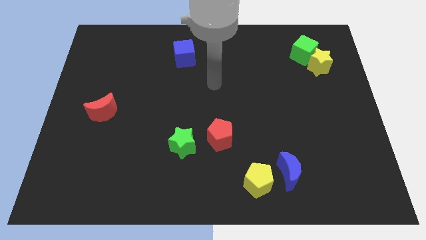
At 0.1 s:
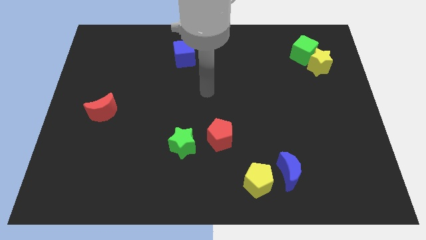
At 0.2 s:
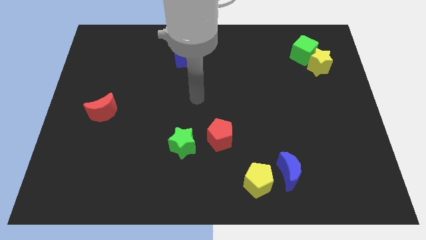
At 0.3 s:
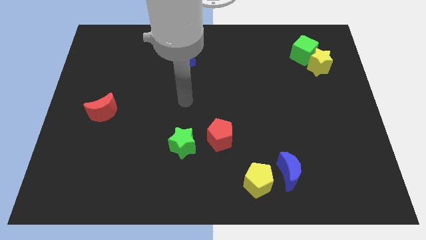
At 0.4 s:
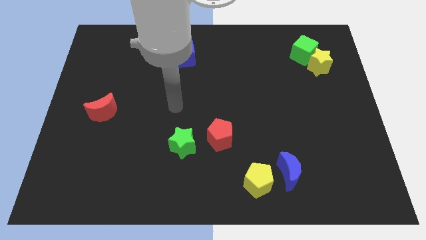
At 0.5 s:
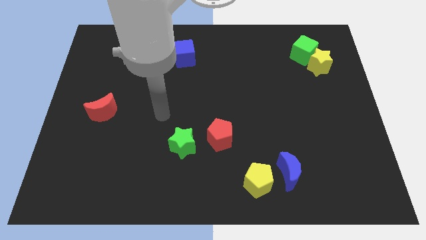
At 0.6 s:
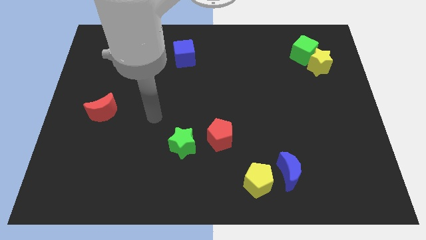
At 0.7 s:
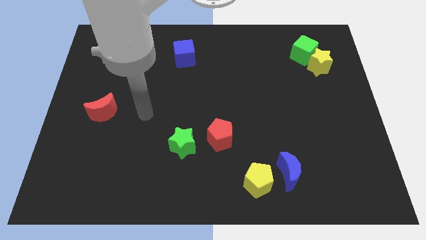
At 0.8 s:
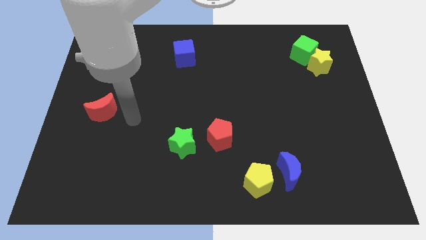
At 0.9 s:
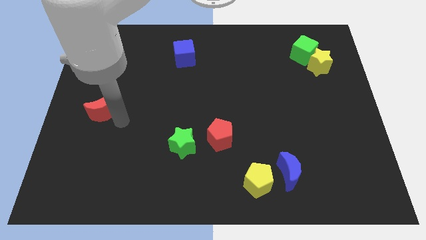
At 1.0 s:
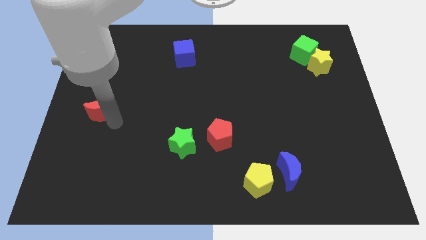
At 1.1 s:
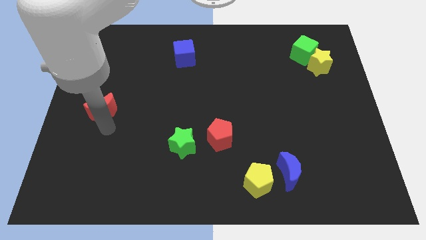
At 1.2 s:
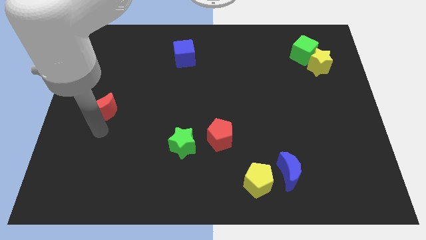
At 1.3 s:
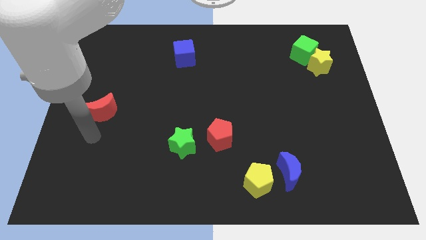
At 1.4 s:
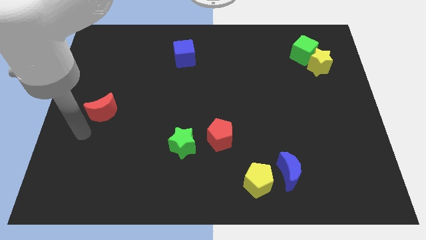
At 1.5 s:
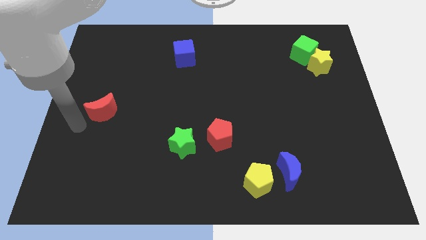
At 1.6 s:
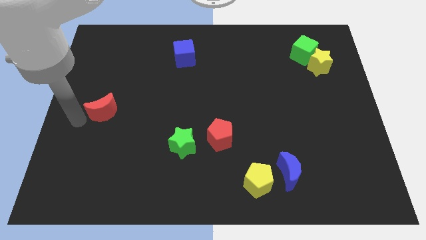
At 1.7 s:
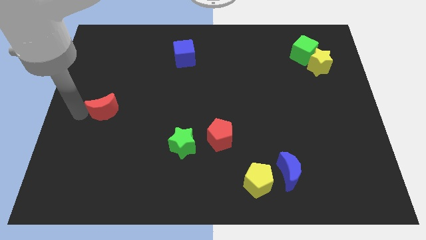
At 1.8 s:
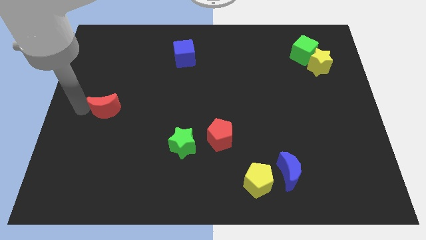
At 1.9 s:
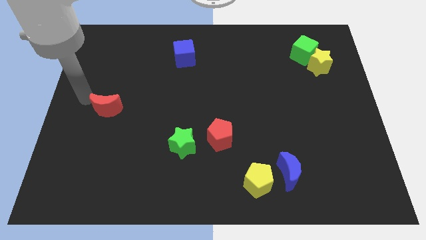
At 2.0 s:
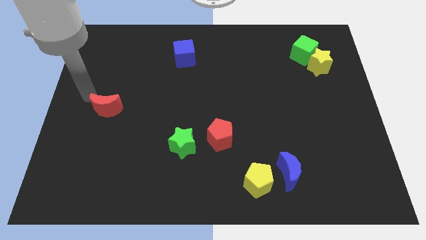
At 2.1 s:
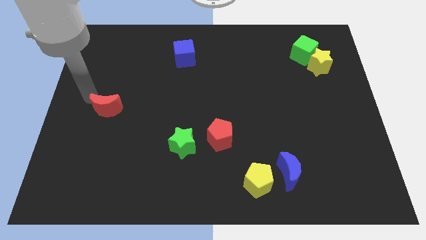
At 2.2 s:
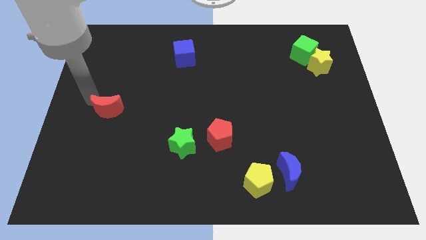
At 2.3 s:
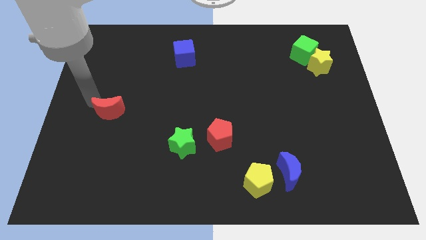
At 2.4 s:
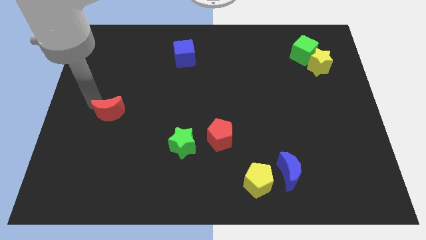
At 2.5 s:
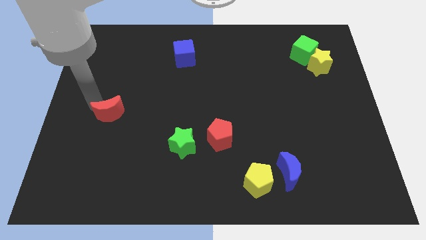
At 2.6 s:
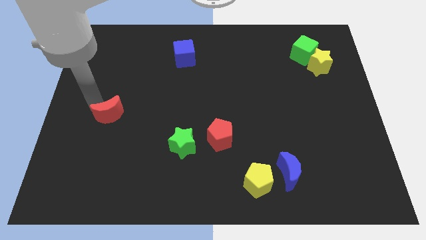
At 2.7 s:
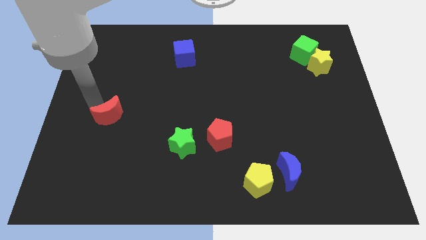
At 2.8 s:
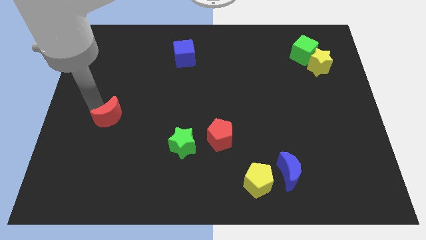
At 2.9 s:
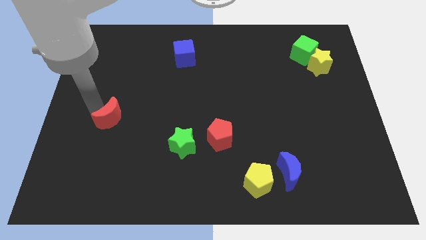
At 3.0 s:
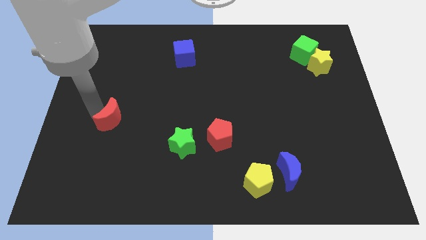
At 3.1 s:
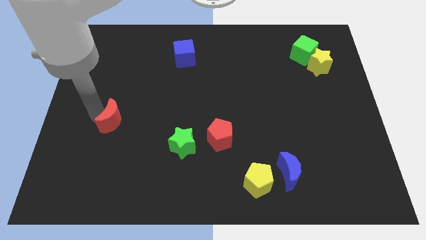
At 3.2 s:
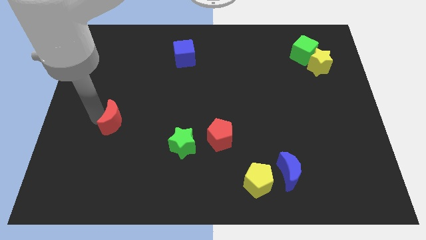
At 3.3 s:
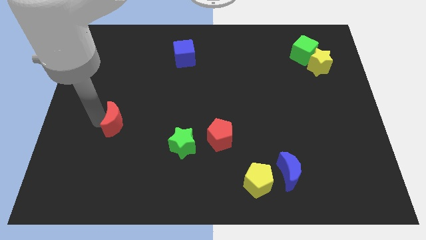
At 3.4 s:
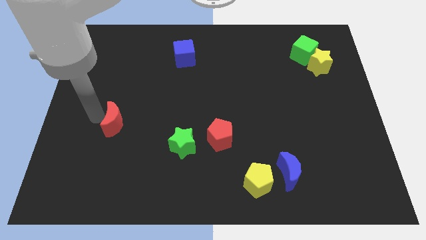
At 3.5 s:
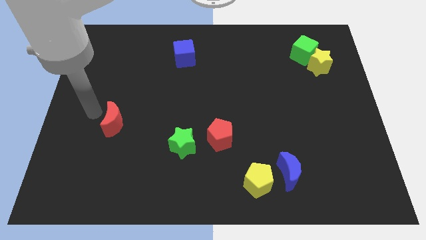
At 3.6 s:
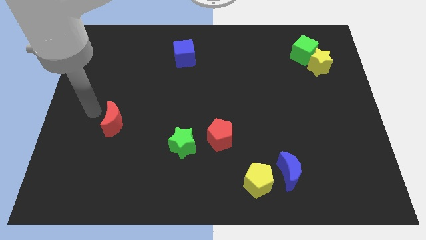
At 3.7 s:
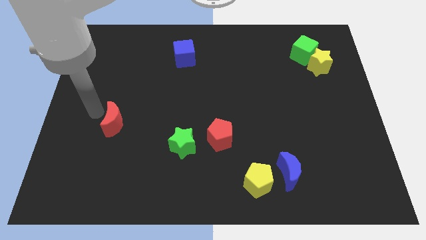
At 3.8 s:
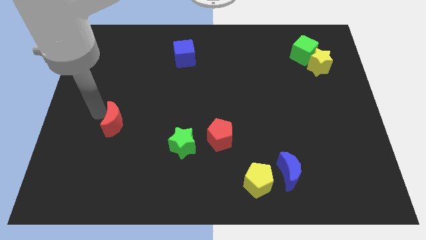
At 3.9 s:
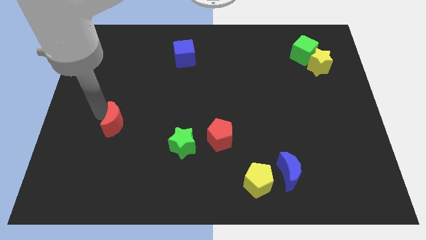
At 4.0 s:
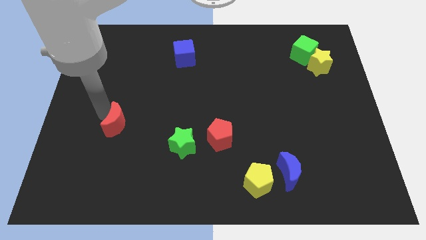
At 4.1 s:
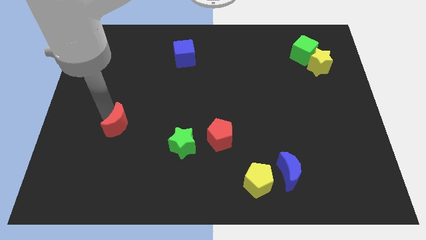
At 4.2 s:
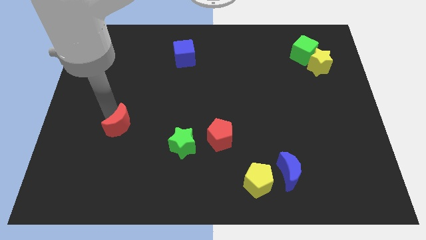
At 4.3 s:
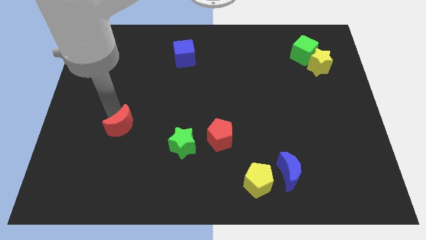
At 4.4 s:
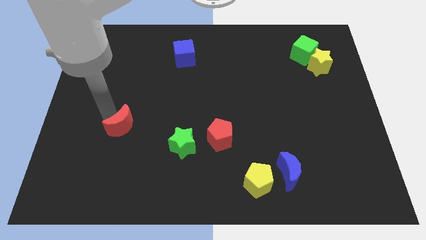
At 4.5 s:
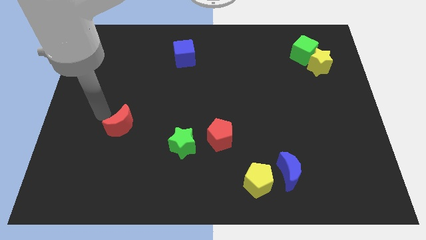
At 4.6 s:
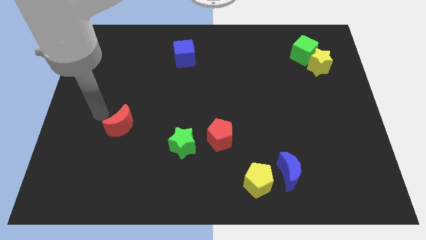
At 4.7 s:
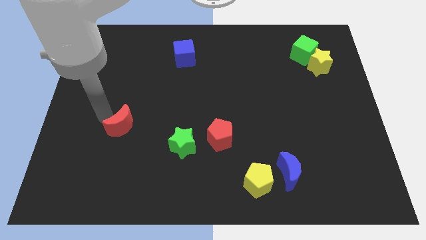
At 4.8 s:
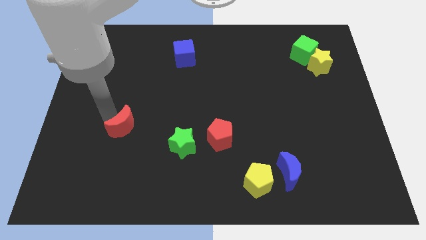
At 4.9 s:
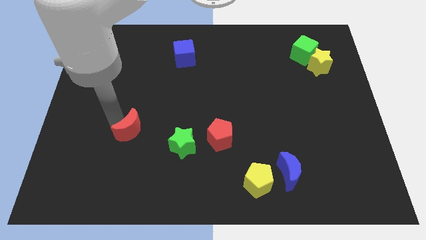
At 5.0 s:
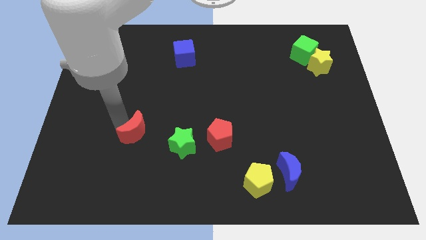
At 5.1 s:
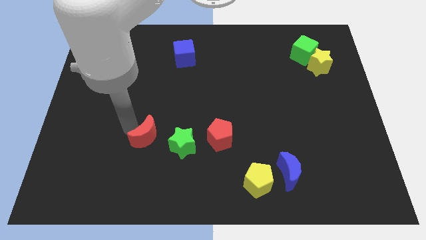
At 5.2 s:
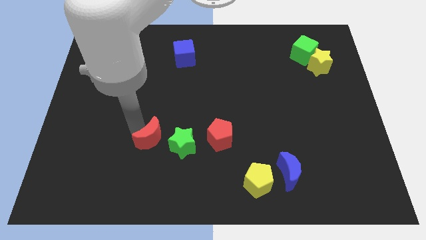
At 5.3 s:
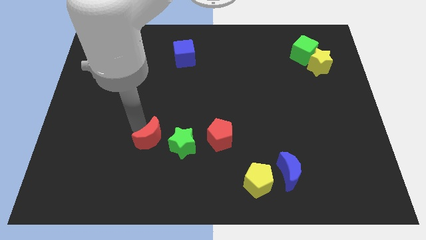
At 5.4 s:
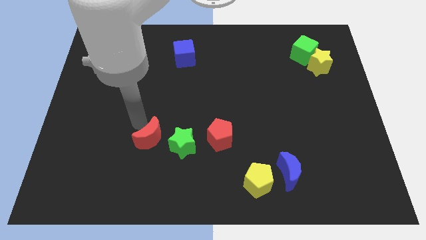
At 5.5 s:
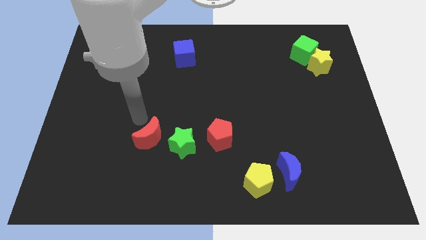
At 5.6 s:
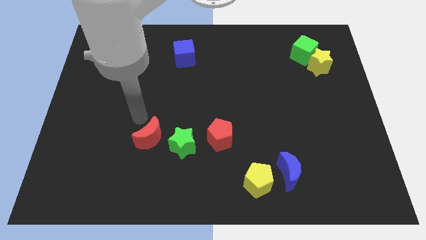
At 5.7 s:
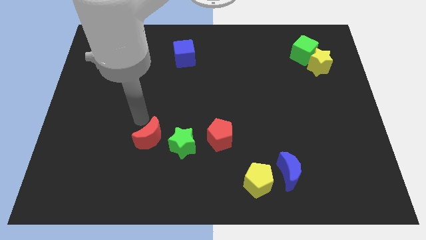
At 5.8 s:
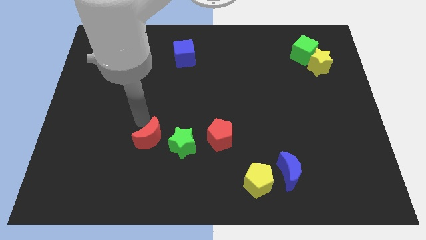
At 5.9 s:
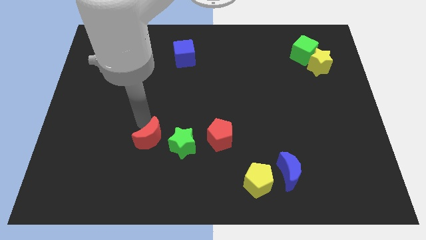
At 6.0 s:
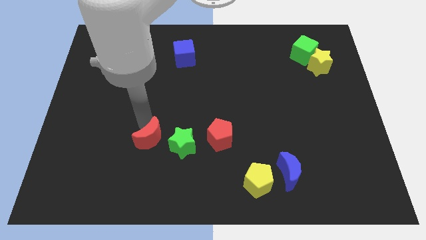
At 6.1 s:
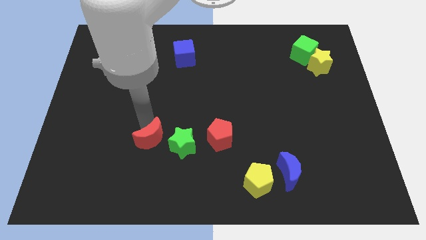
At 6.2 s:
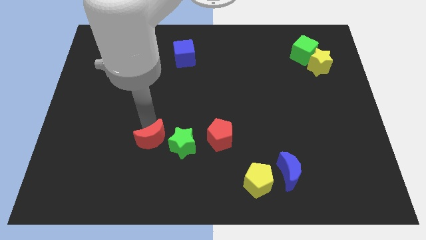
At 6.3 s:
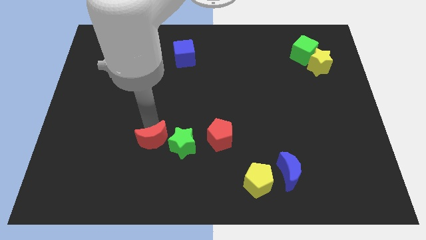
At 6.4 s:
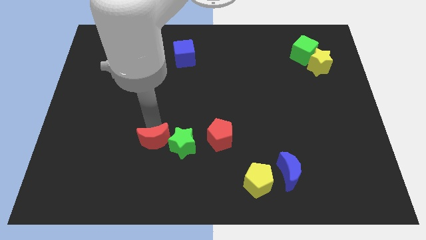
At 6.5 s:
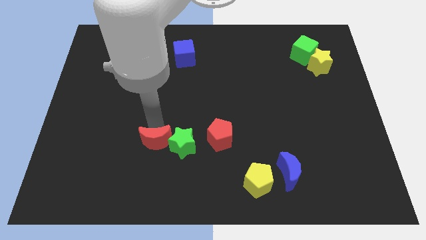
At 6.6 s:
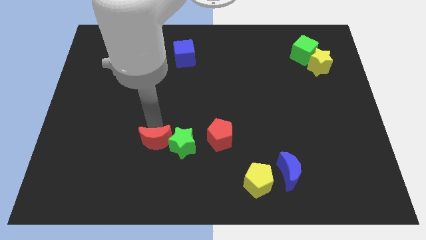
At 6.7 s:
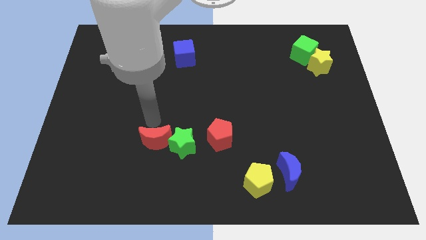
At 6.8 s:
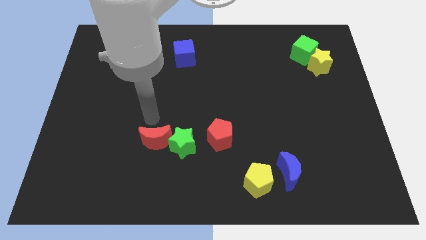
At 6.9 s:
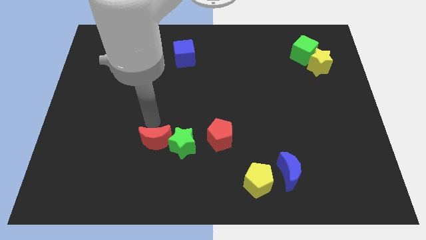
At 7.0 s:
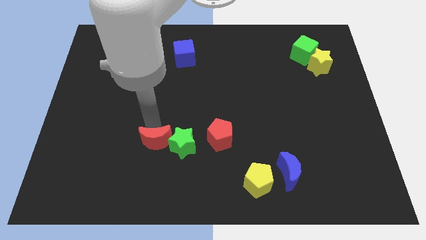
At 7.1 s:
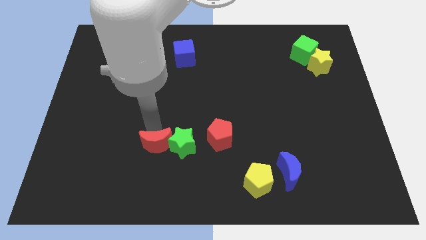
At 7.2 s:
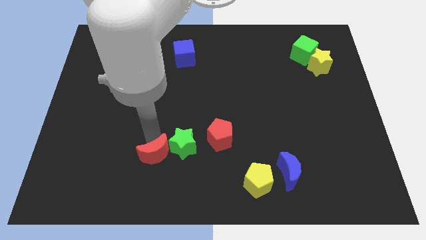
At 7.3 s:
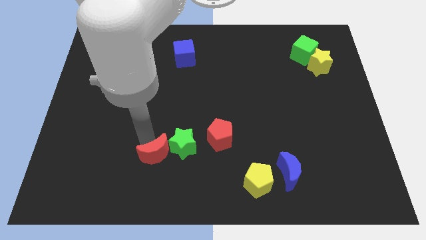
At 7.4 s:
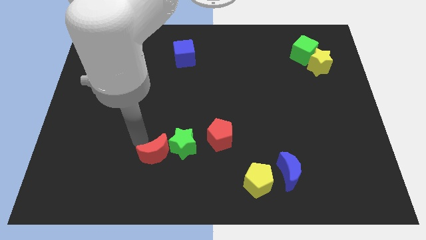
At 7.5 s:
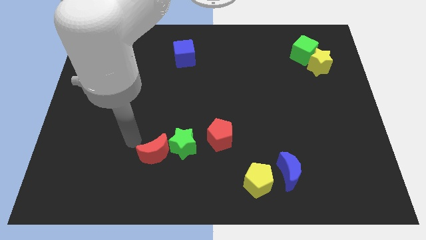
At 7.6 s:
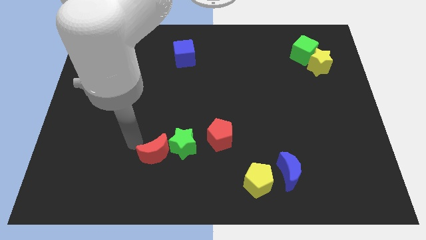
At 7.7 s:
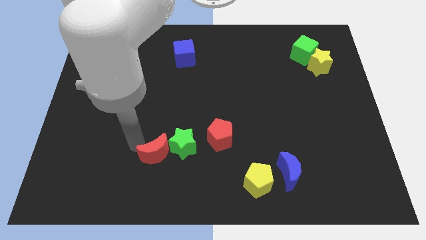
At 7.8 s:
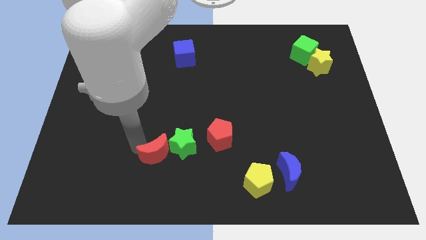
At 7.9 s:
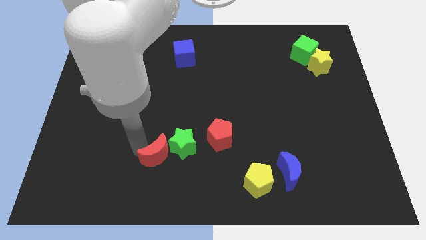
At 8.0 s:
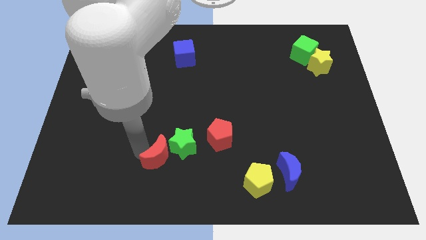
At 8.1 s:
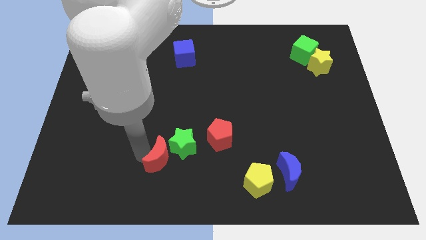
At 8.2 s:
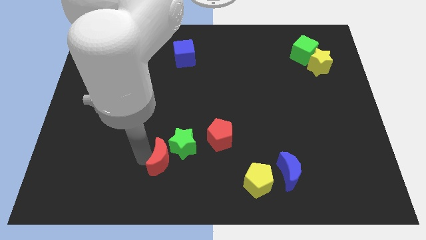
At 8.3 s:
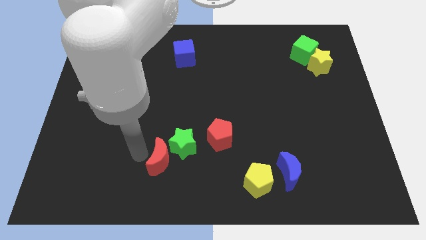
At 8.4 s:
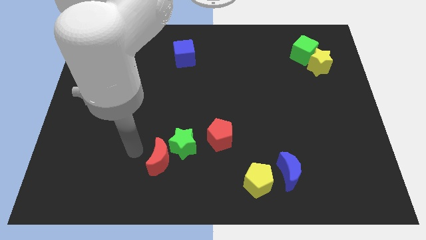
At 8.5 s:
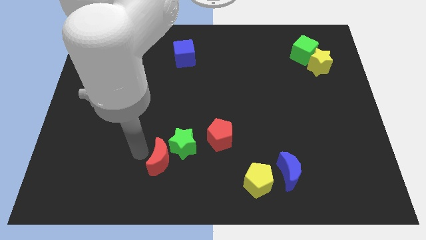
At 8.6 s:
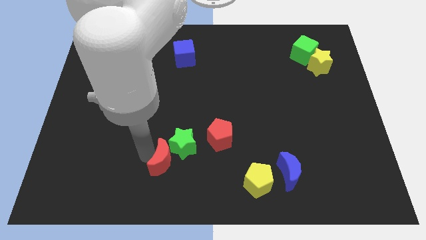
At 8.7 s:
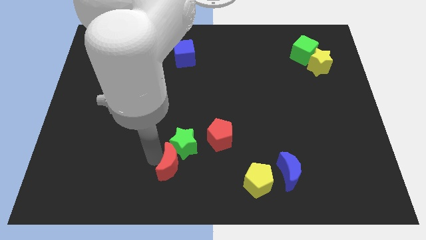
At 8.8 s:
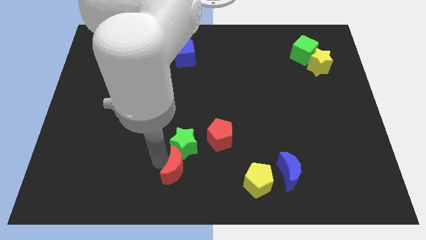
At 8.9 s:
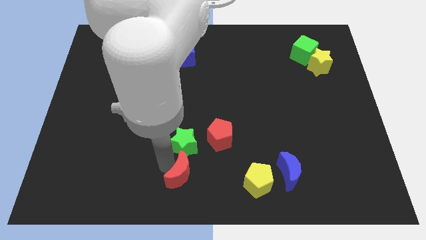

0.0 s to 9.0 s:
push the red moon to the left of the yellow pentagon
